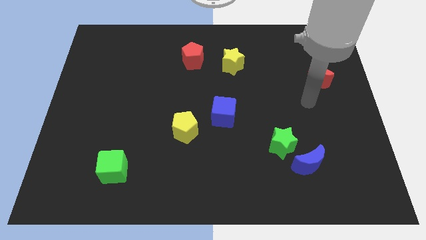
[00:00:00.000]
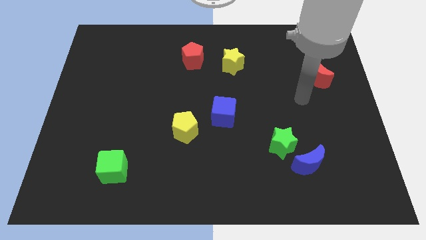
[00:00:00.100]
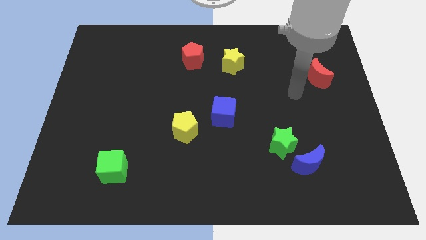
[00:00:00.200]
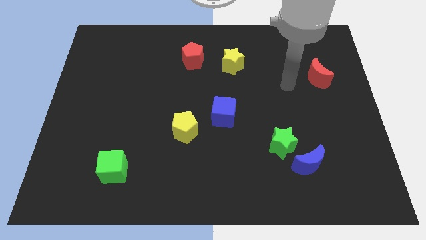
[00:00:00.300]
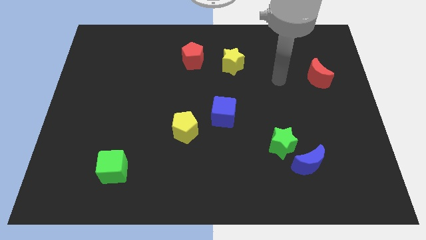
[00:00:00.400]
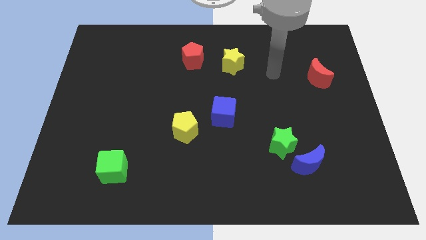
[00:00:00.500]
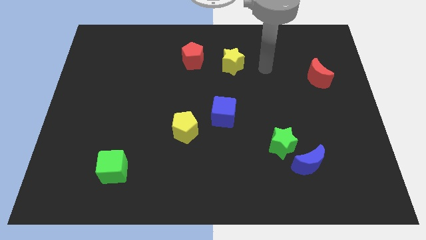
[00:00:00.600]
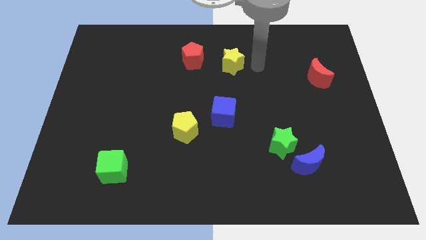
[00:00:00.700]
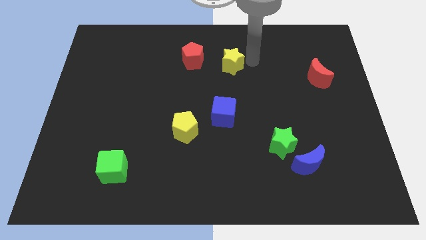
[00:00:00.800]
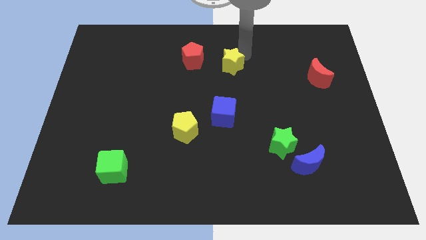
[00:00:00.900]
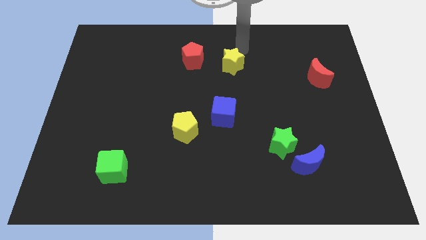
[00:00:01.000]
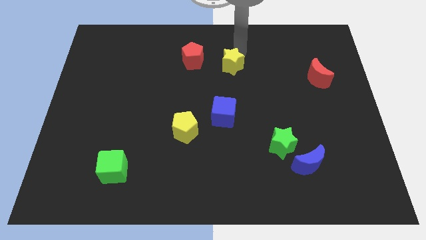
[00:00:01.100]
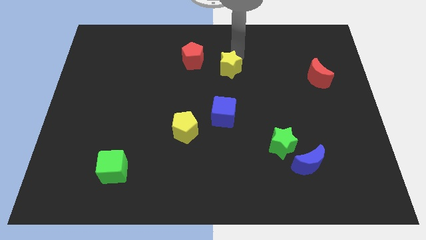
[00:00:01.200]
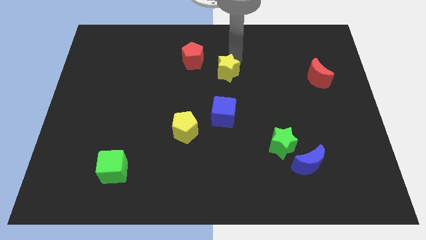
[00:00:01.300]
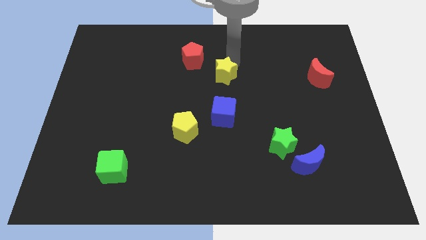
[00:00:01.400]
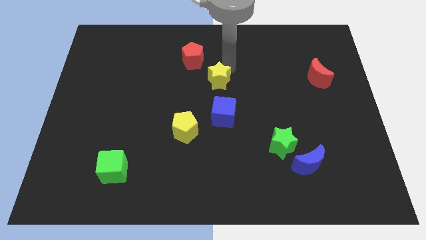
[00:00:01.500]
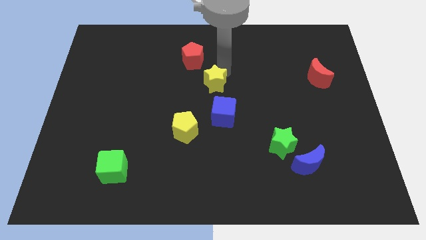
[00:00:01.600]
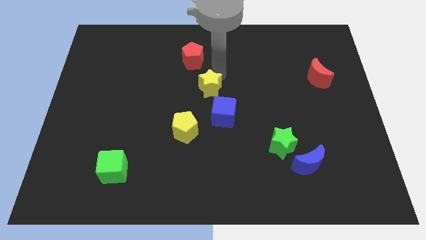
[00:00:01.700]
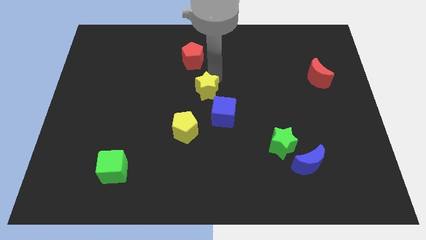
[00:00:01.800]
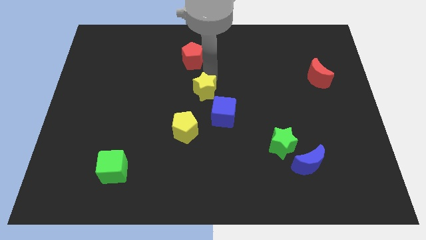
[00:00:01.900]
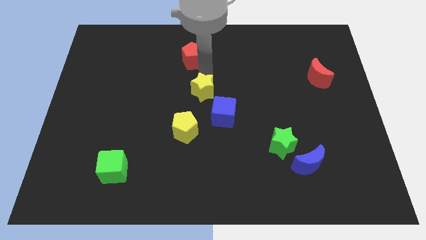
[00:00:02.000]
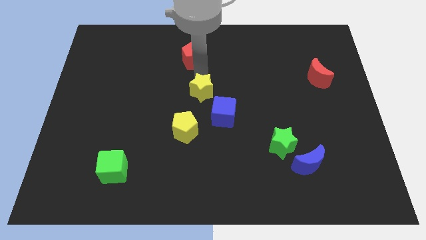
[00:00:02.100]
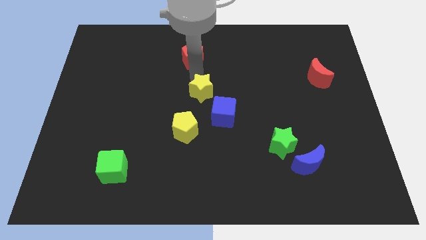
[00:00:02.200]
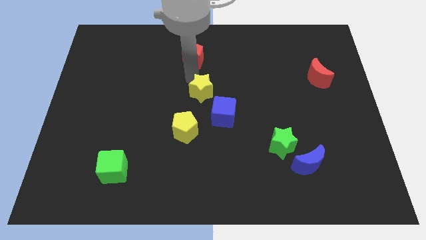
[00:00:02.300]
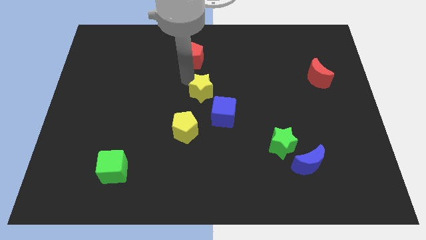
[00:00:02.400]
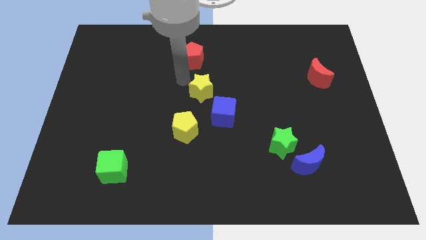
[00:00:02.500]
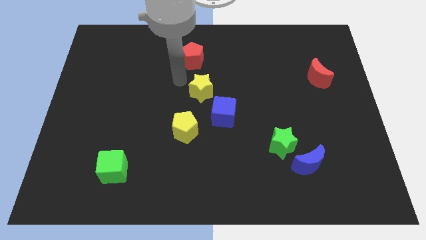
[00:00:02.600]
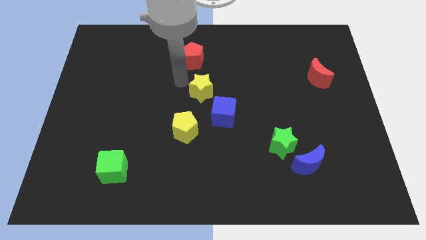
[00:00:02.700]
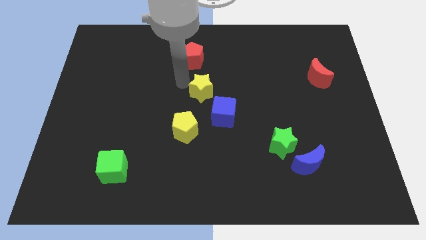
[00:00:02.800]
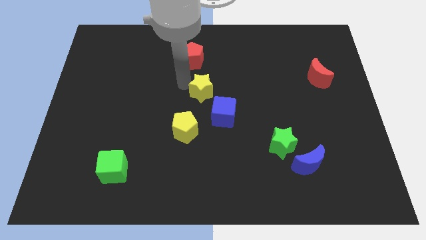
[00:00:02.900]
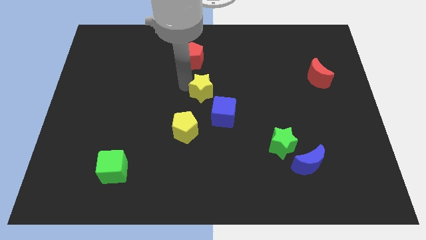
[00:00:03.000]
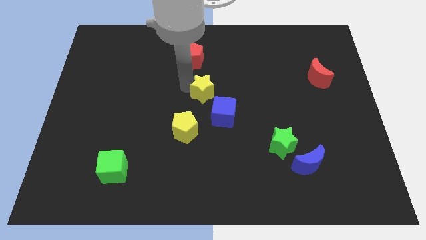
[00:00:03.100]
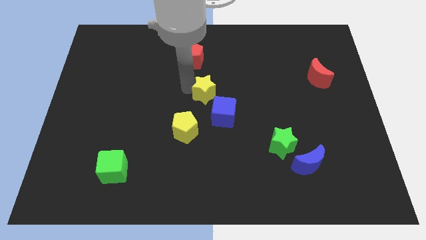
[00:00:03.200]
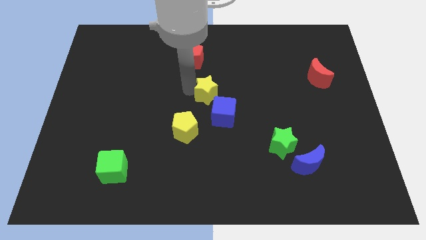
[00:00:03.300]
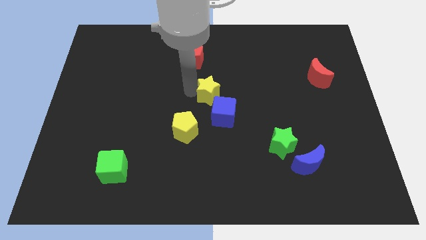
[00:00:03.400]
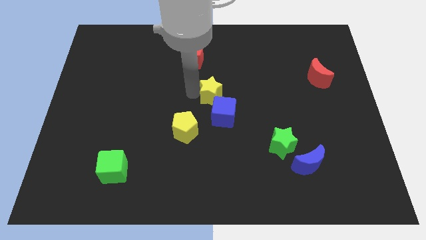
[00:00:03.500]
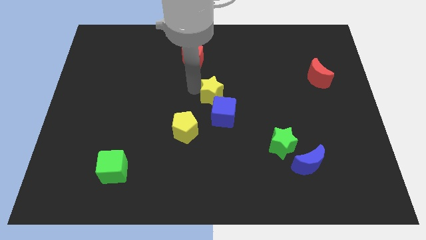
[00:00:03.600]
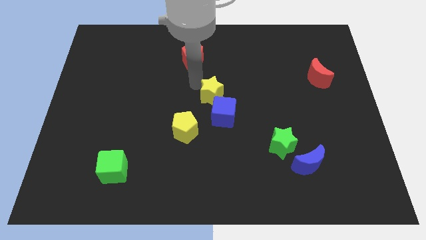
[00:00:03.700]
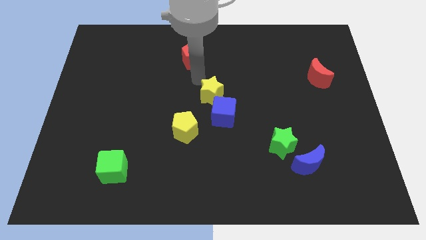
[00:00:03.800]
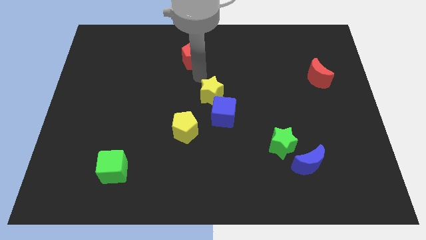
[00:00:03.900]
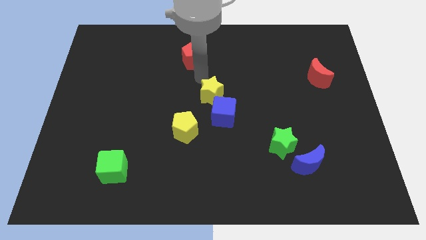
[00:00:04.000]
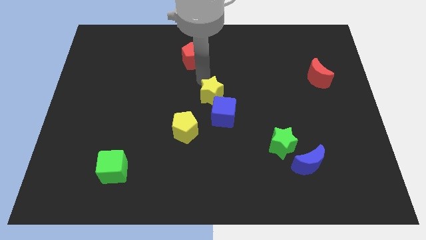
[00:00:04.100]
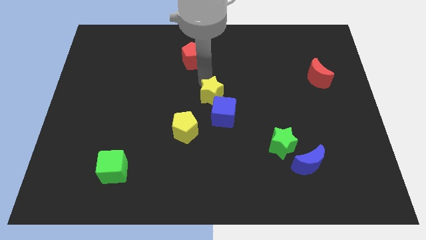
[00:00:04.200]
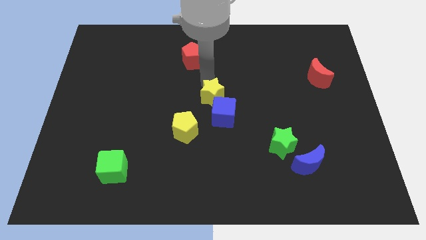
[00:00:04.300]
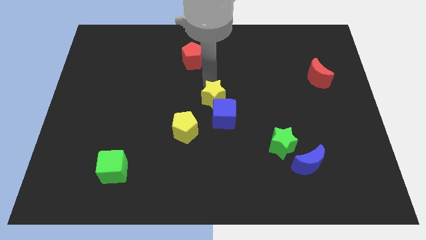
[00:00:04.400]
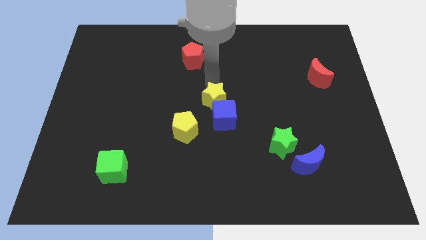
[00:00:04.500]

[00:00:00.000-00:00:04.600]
push the yellow star to the blue cube

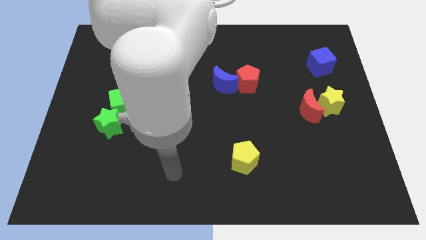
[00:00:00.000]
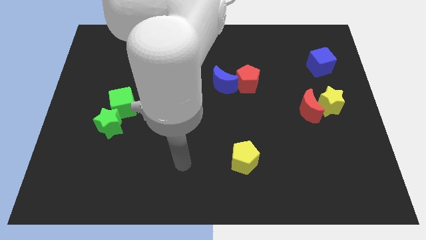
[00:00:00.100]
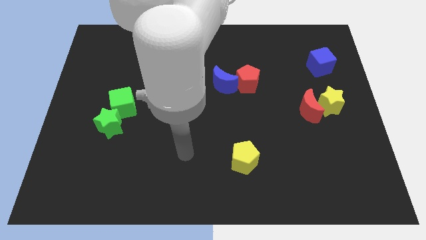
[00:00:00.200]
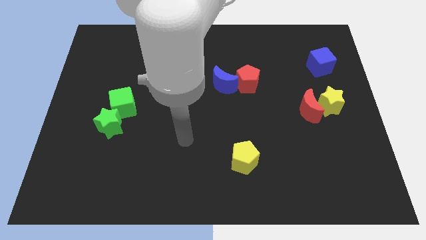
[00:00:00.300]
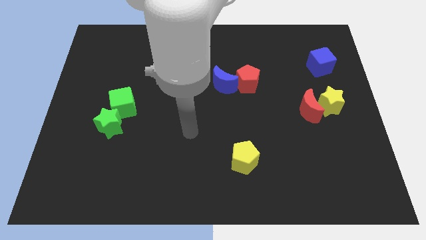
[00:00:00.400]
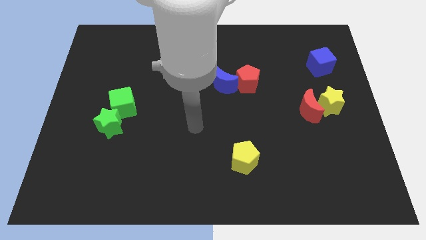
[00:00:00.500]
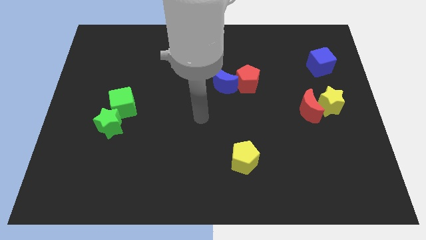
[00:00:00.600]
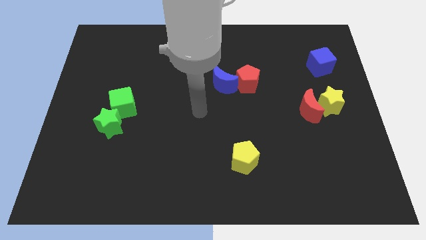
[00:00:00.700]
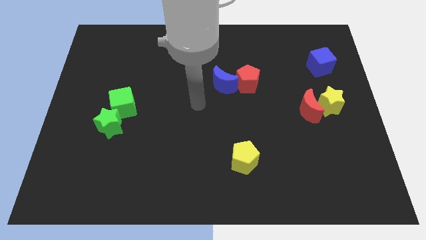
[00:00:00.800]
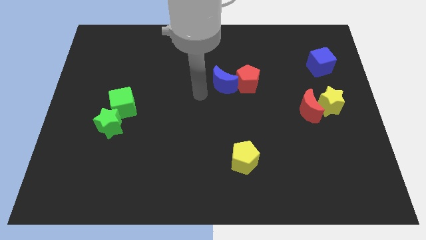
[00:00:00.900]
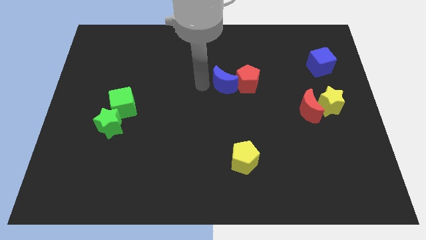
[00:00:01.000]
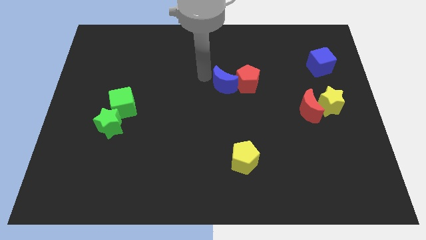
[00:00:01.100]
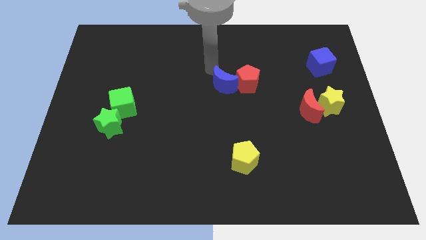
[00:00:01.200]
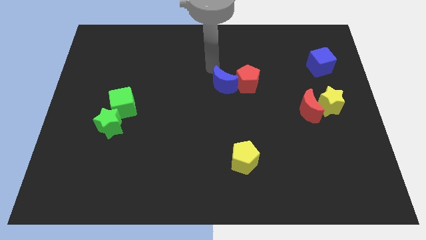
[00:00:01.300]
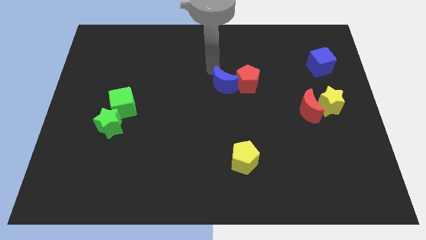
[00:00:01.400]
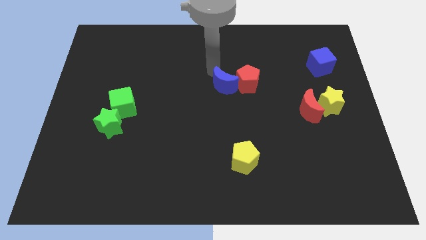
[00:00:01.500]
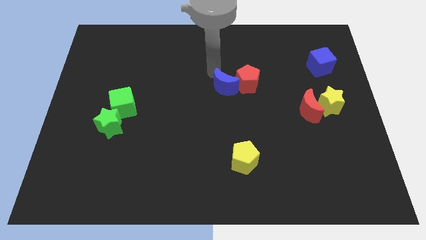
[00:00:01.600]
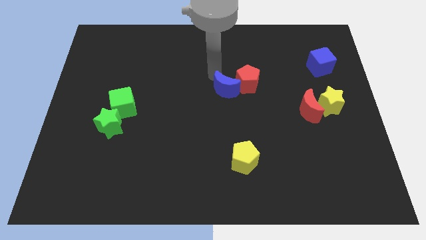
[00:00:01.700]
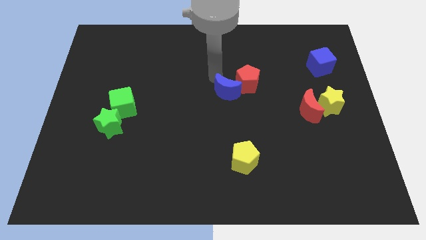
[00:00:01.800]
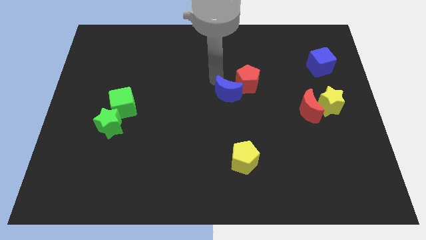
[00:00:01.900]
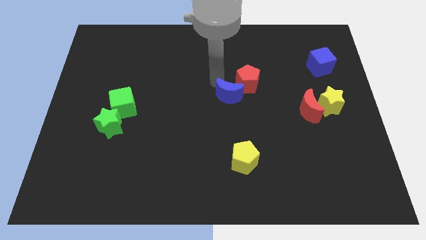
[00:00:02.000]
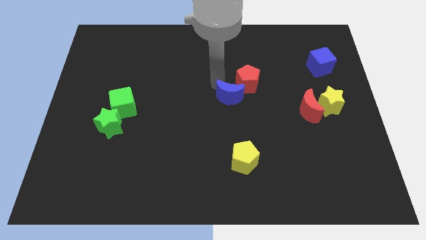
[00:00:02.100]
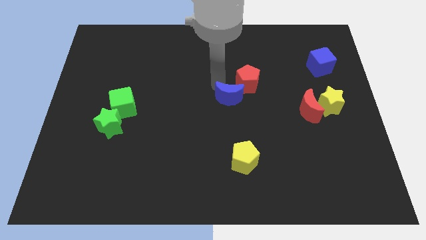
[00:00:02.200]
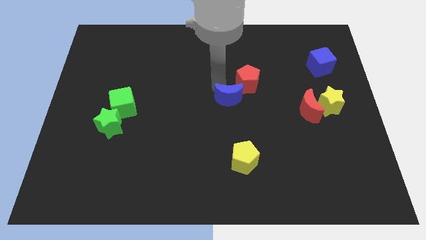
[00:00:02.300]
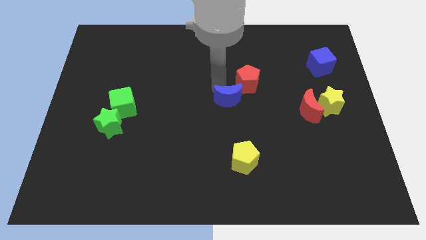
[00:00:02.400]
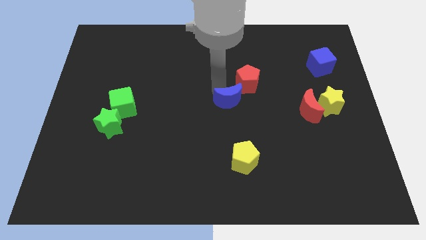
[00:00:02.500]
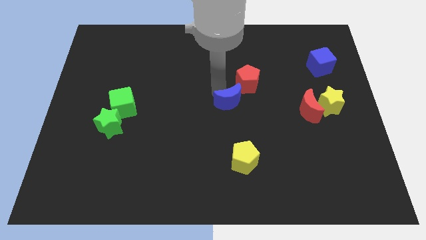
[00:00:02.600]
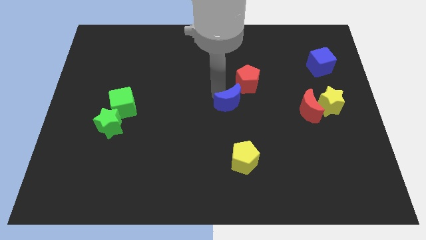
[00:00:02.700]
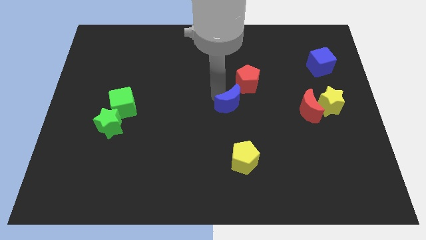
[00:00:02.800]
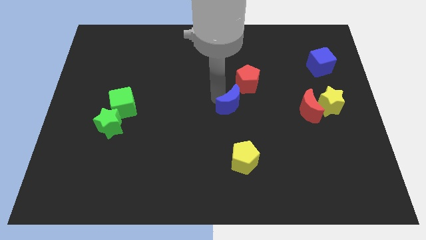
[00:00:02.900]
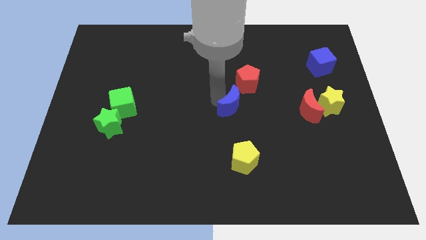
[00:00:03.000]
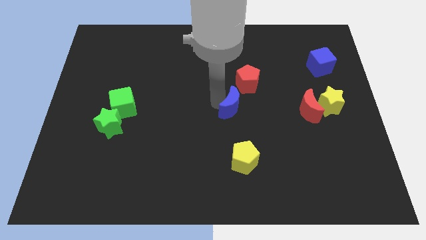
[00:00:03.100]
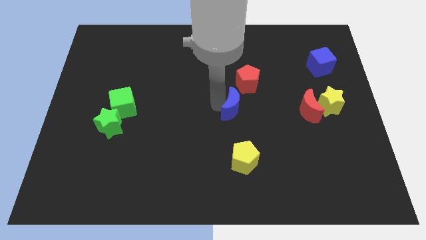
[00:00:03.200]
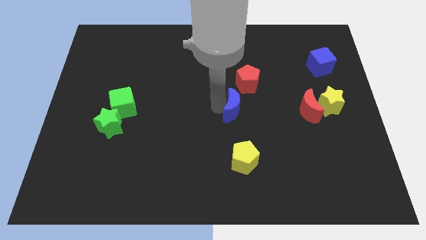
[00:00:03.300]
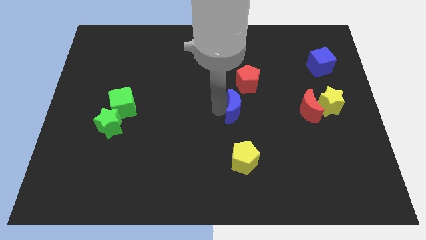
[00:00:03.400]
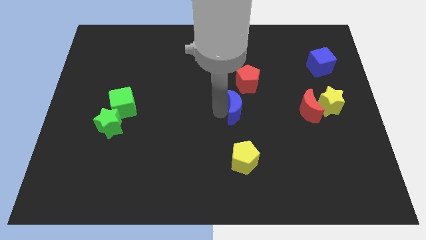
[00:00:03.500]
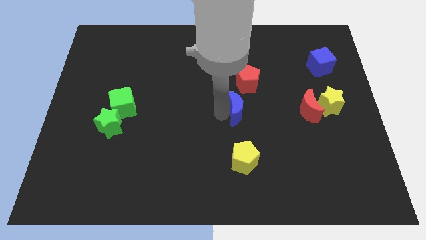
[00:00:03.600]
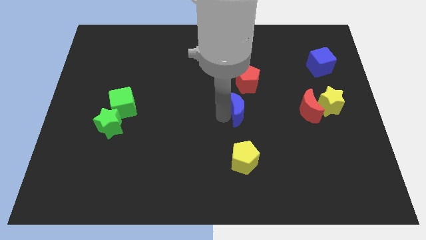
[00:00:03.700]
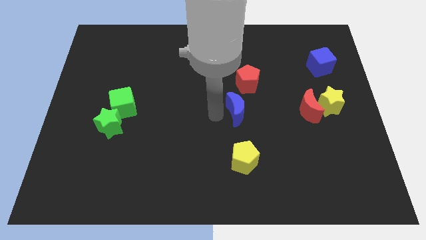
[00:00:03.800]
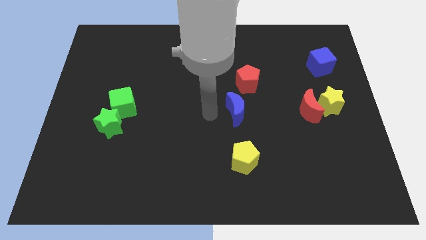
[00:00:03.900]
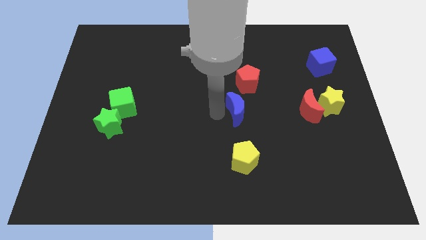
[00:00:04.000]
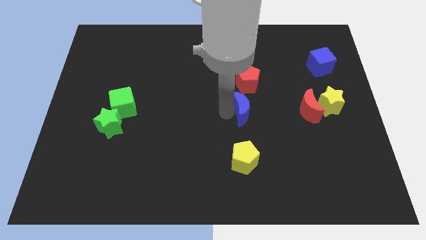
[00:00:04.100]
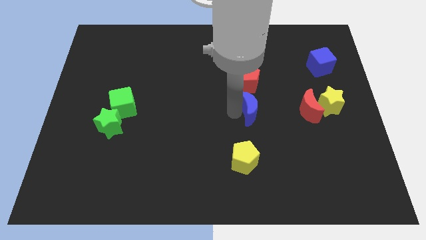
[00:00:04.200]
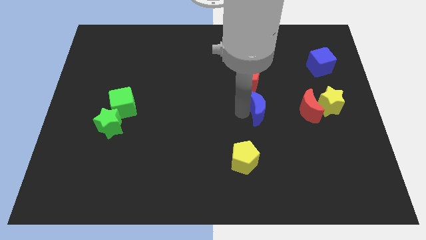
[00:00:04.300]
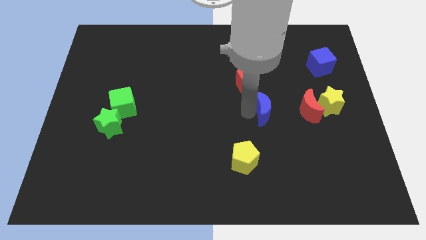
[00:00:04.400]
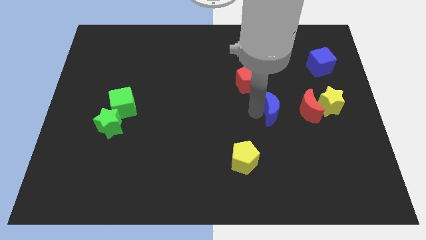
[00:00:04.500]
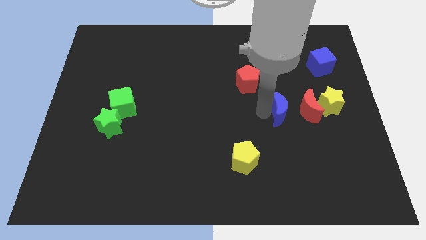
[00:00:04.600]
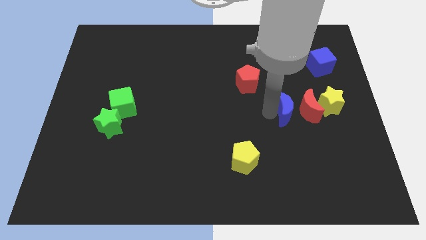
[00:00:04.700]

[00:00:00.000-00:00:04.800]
put the blue moon next to the red moon
